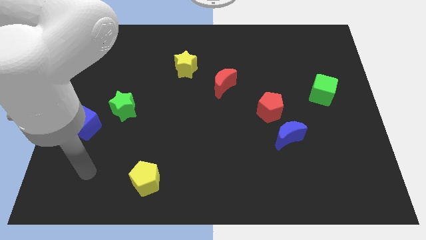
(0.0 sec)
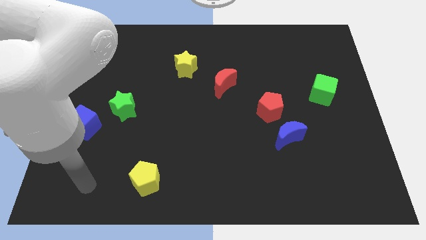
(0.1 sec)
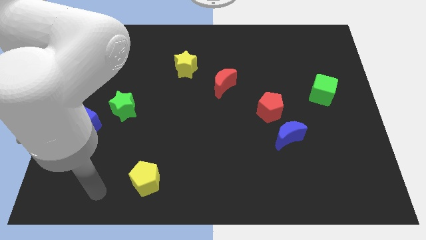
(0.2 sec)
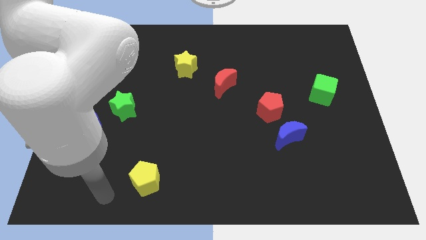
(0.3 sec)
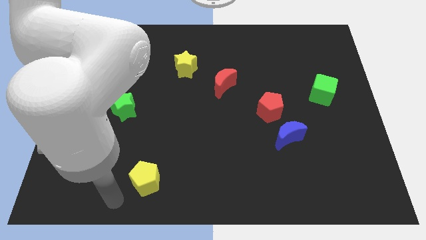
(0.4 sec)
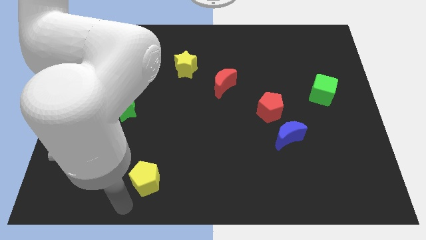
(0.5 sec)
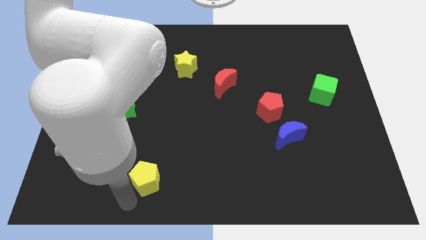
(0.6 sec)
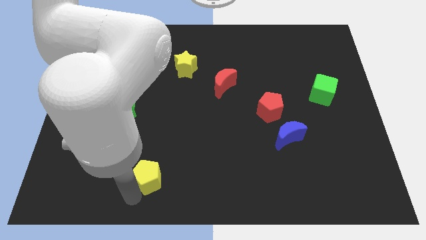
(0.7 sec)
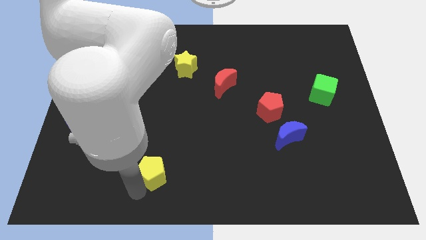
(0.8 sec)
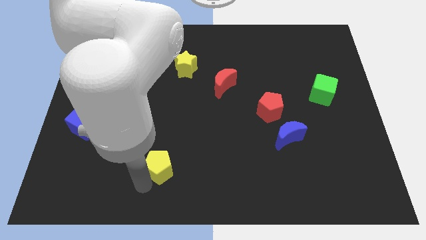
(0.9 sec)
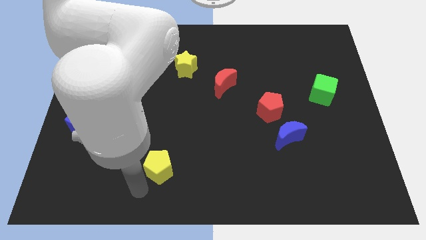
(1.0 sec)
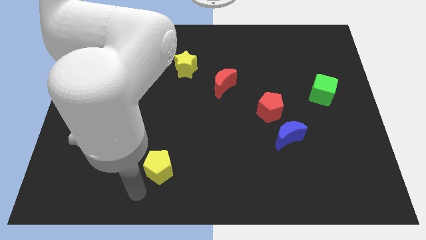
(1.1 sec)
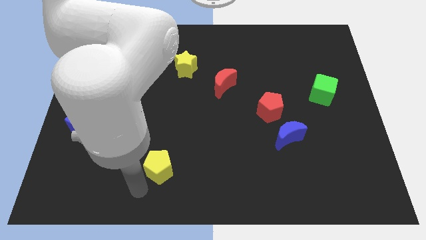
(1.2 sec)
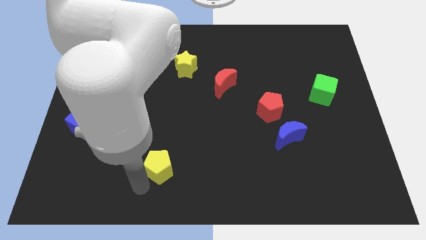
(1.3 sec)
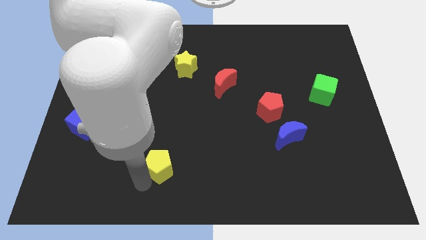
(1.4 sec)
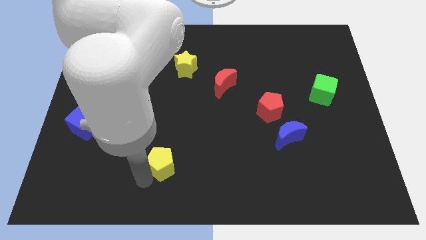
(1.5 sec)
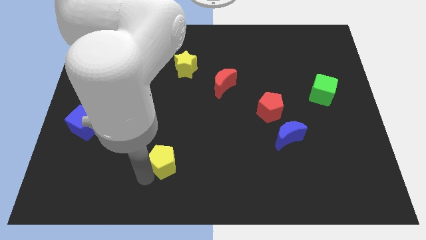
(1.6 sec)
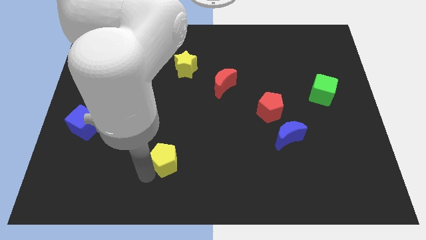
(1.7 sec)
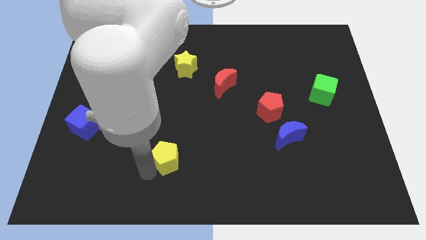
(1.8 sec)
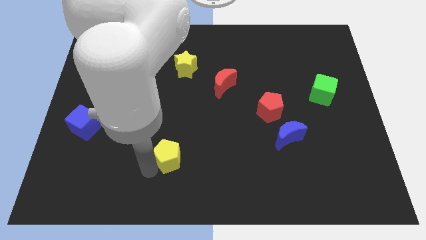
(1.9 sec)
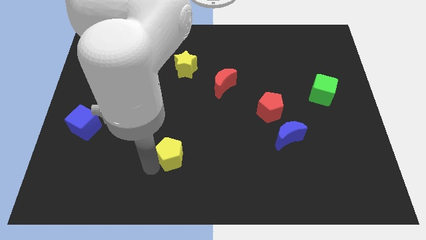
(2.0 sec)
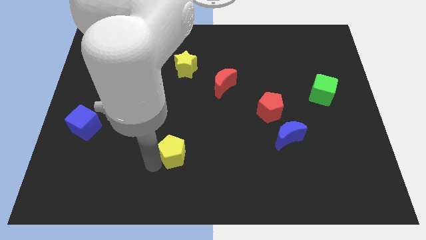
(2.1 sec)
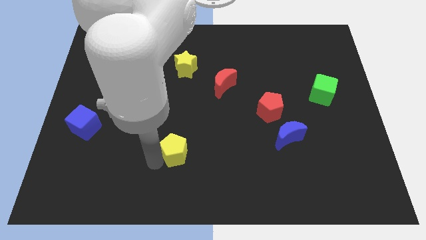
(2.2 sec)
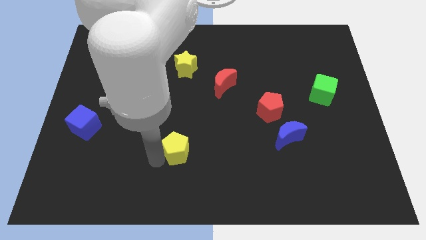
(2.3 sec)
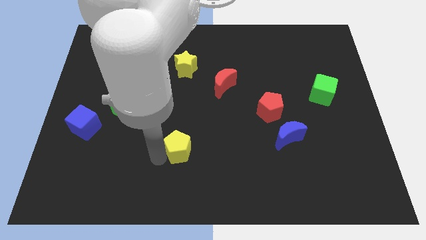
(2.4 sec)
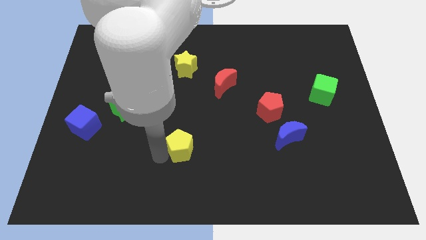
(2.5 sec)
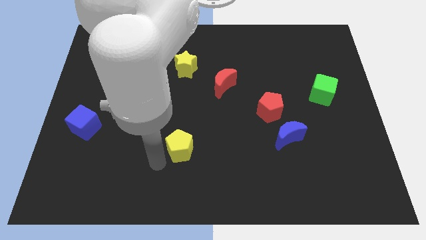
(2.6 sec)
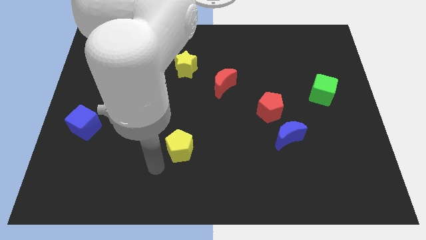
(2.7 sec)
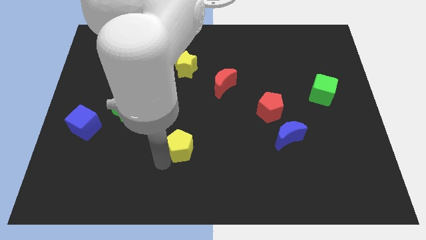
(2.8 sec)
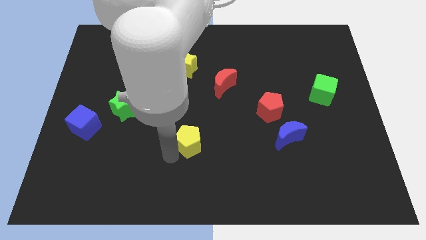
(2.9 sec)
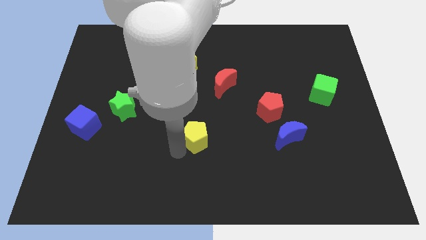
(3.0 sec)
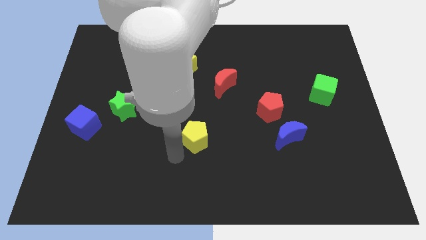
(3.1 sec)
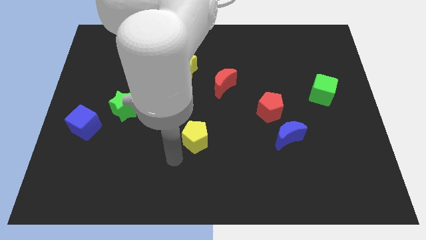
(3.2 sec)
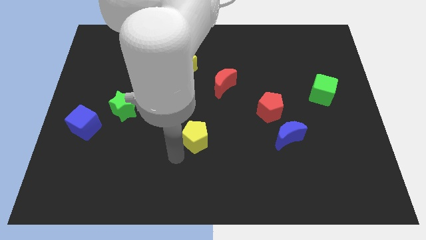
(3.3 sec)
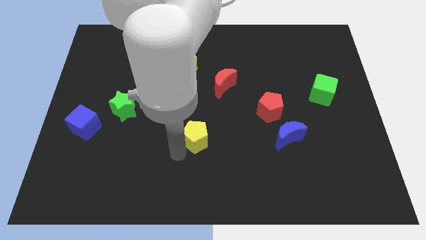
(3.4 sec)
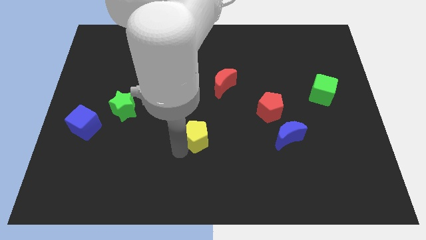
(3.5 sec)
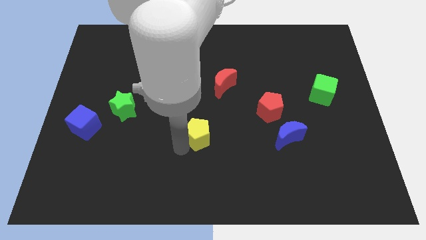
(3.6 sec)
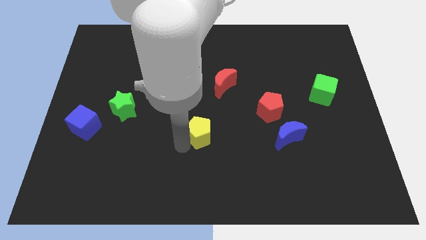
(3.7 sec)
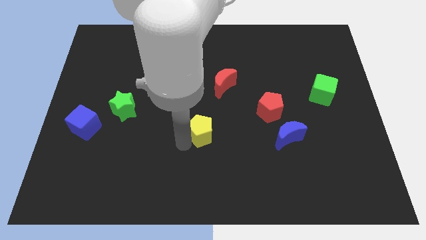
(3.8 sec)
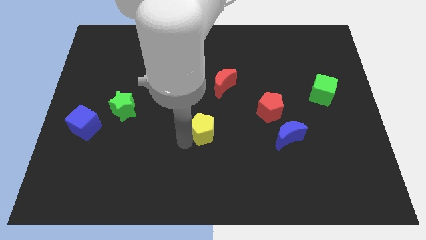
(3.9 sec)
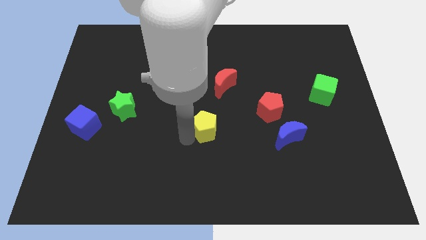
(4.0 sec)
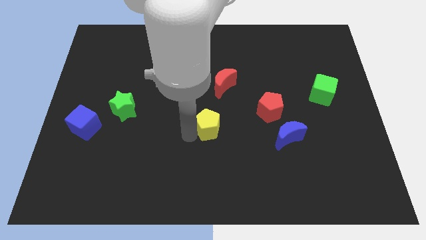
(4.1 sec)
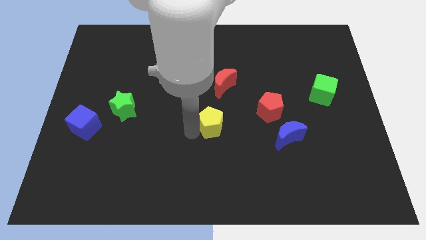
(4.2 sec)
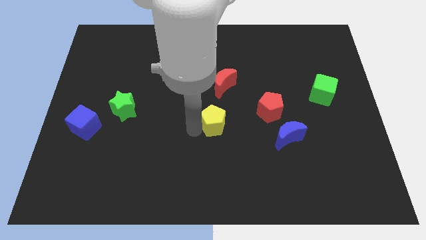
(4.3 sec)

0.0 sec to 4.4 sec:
push the yellow pentagon diagonally up and to the right

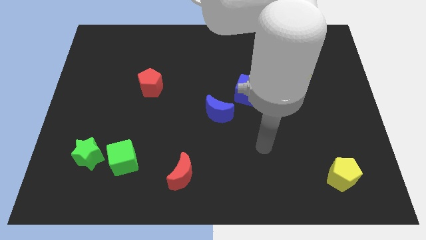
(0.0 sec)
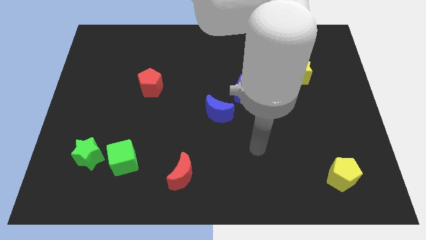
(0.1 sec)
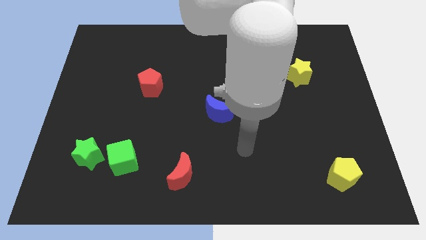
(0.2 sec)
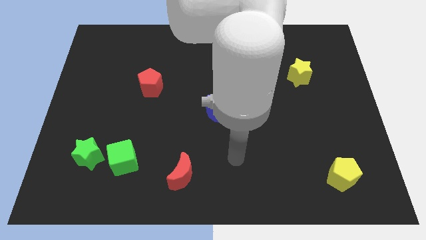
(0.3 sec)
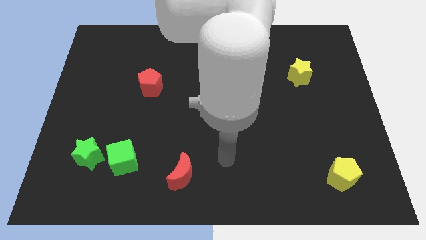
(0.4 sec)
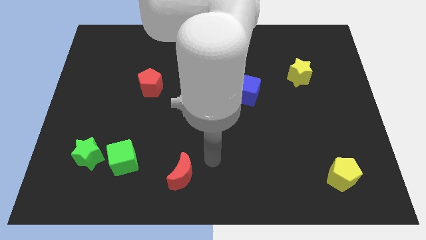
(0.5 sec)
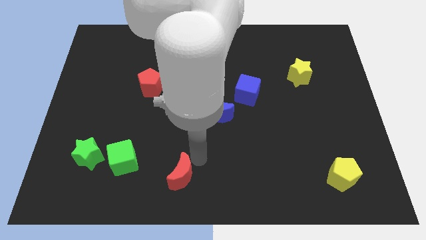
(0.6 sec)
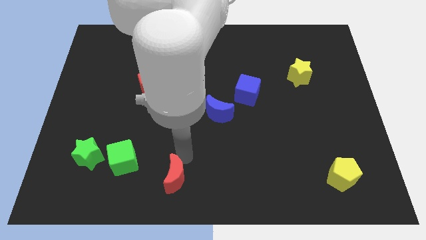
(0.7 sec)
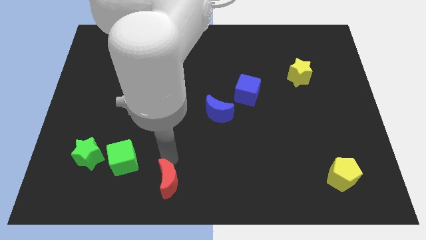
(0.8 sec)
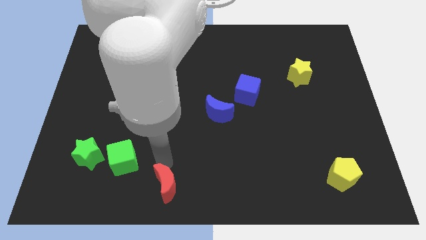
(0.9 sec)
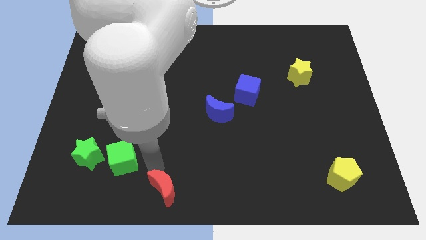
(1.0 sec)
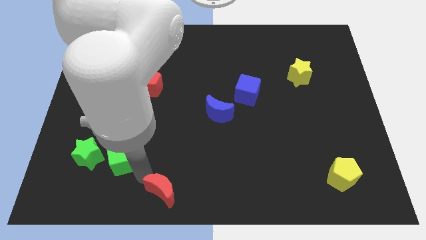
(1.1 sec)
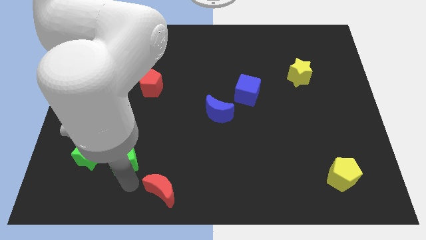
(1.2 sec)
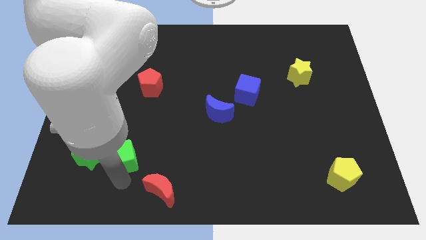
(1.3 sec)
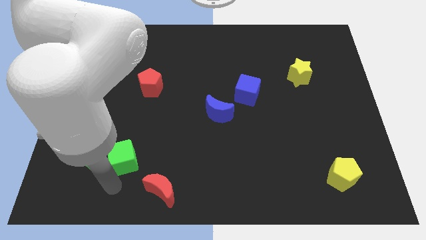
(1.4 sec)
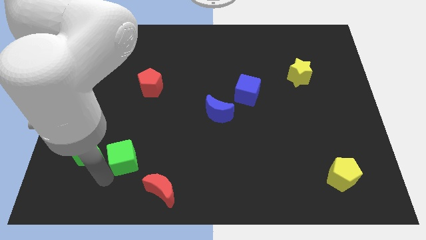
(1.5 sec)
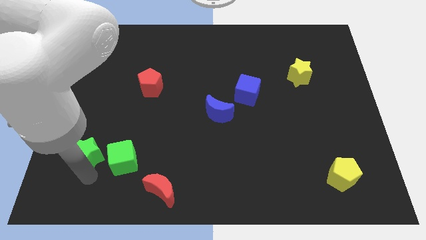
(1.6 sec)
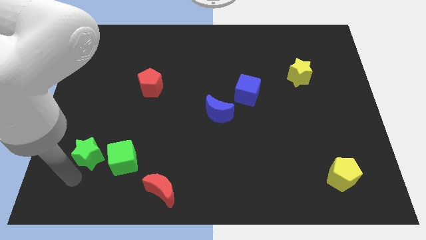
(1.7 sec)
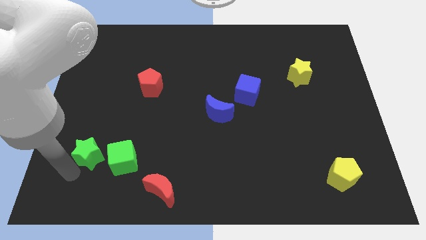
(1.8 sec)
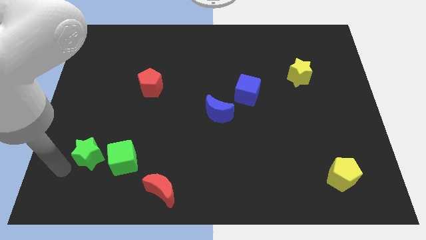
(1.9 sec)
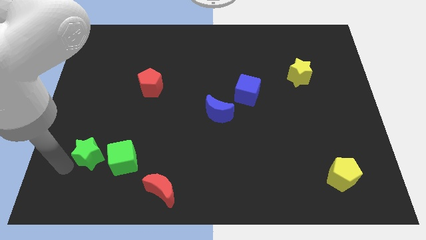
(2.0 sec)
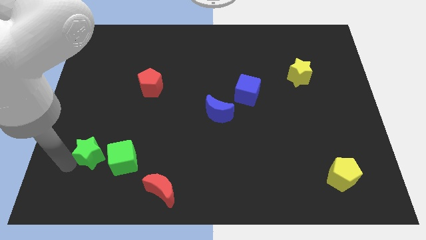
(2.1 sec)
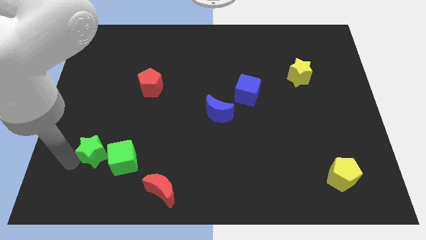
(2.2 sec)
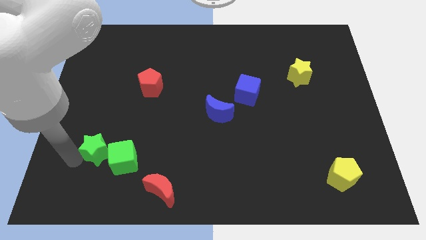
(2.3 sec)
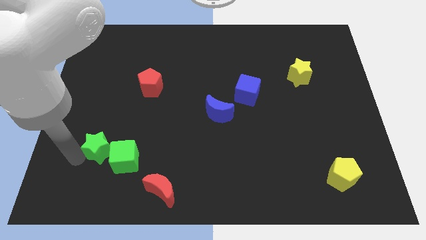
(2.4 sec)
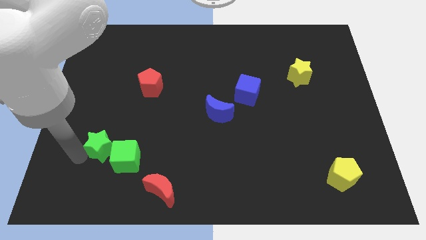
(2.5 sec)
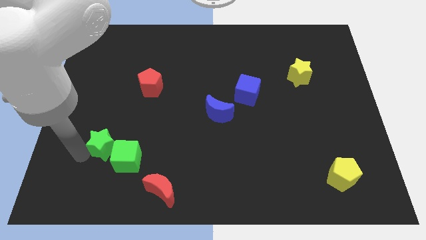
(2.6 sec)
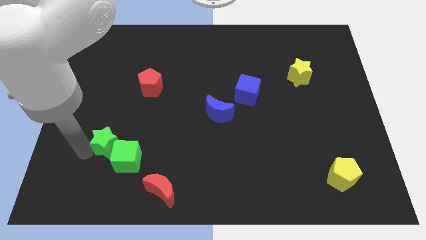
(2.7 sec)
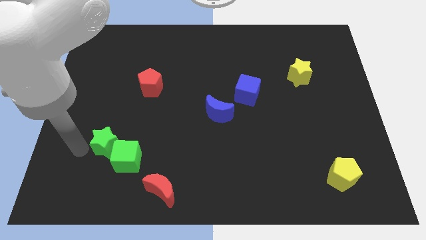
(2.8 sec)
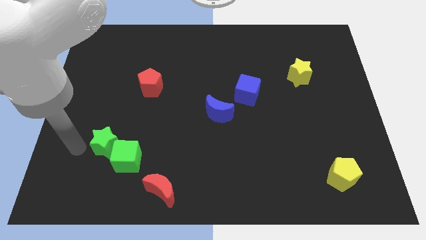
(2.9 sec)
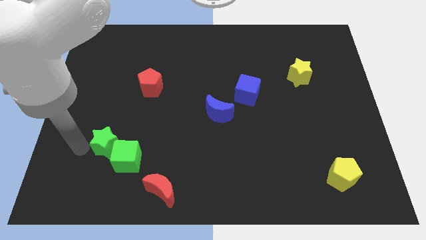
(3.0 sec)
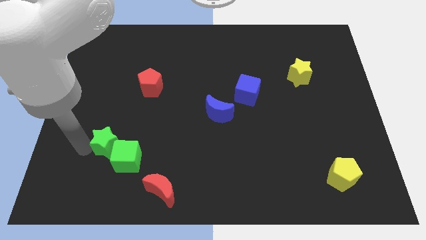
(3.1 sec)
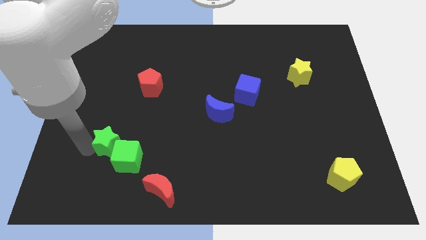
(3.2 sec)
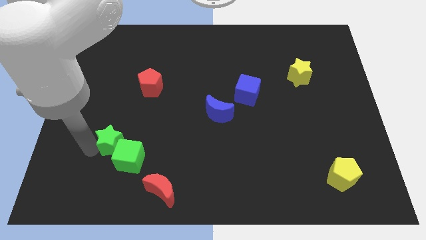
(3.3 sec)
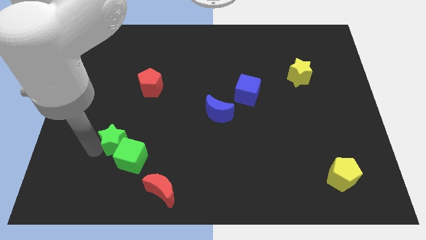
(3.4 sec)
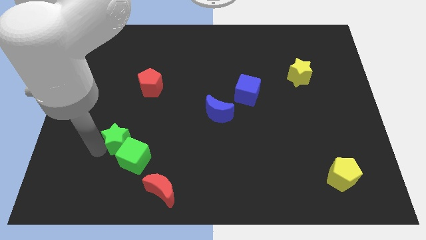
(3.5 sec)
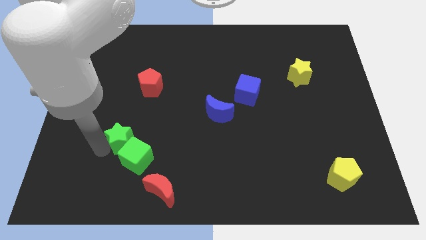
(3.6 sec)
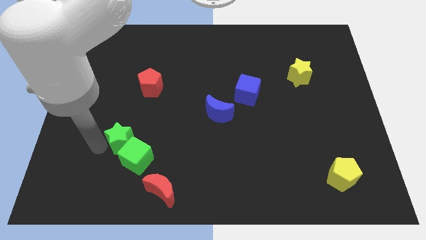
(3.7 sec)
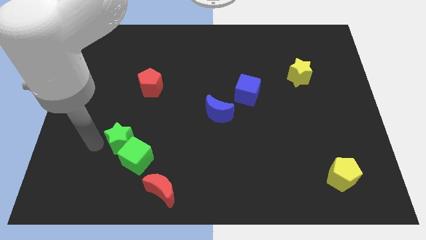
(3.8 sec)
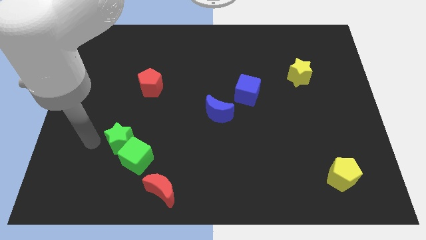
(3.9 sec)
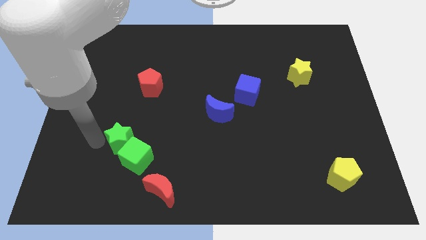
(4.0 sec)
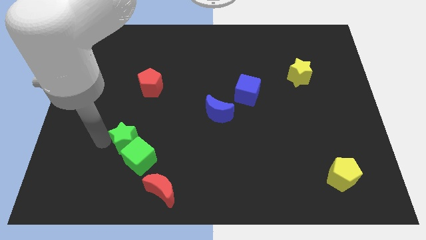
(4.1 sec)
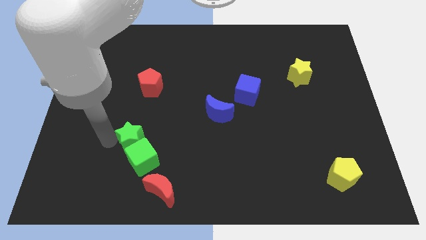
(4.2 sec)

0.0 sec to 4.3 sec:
move the green star right slightly
